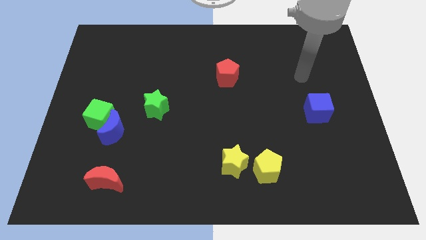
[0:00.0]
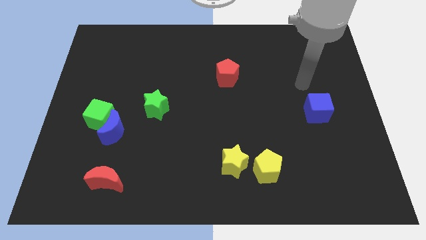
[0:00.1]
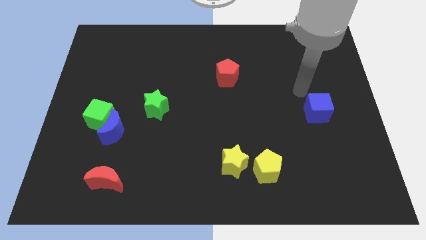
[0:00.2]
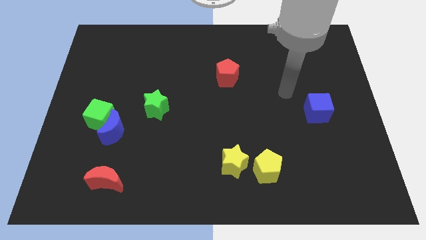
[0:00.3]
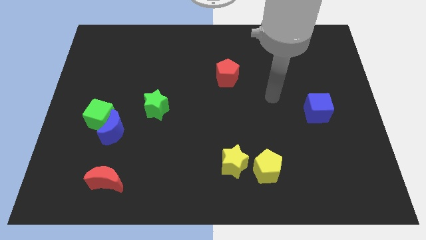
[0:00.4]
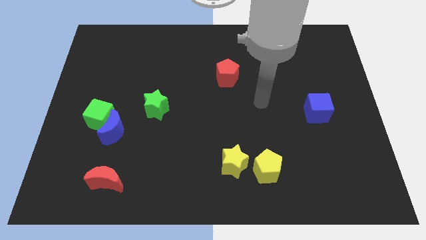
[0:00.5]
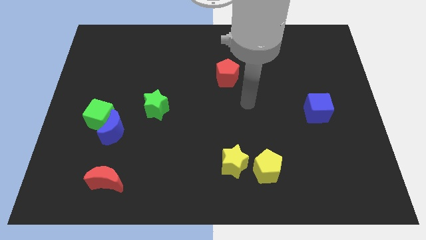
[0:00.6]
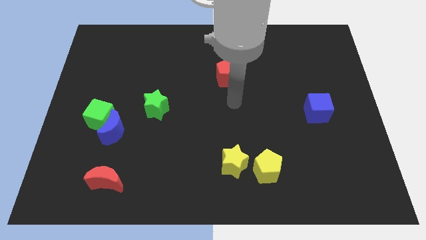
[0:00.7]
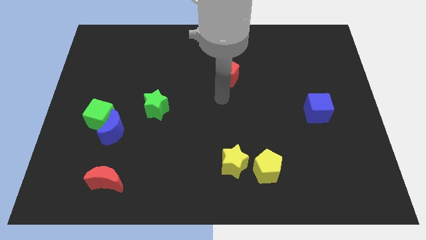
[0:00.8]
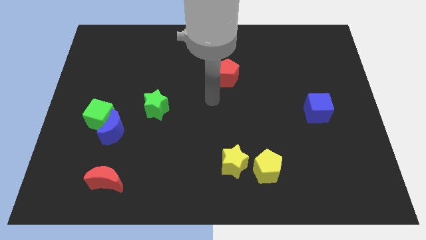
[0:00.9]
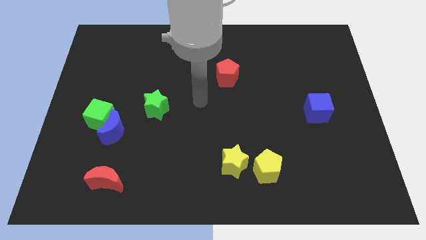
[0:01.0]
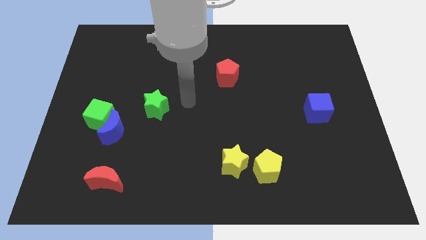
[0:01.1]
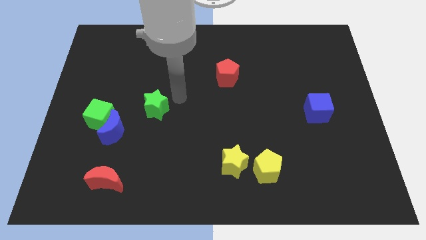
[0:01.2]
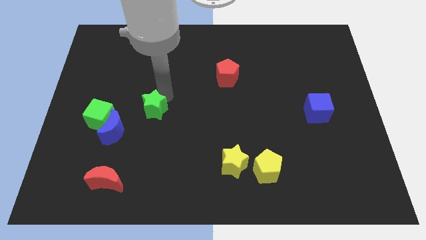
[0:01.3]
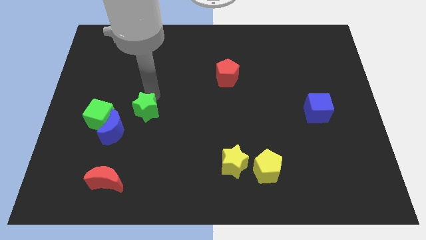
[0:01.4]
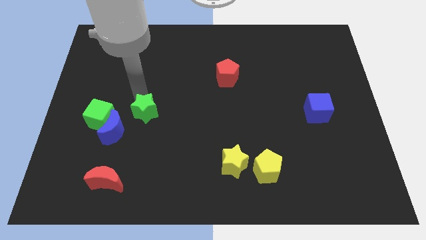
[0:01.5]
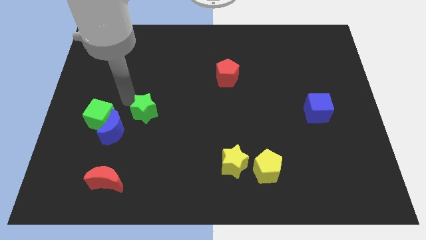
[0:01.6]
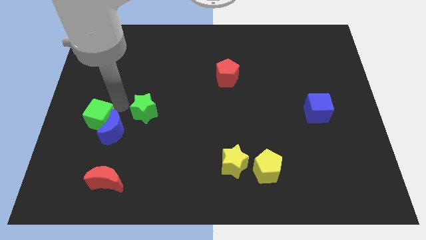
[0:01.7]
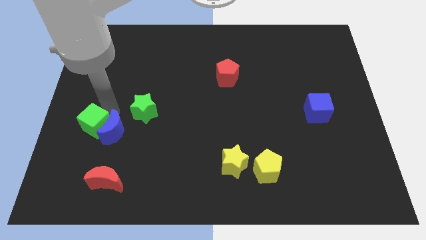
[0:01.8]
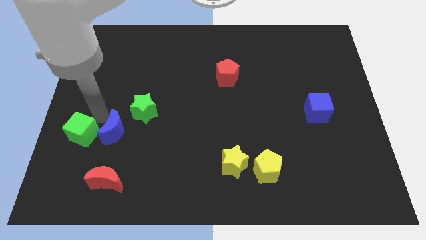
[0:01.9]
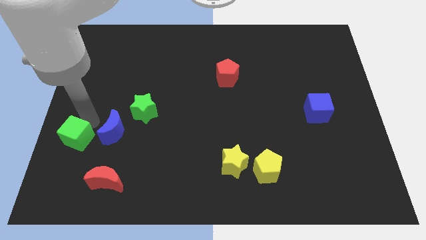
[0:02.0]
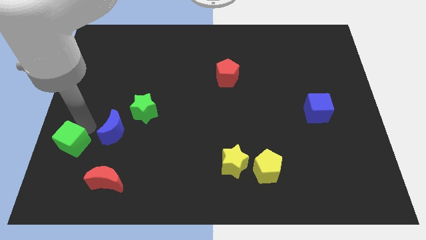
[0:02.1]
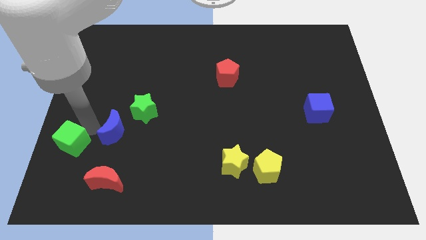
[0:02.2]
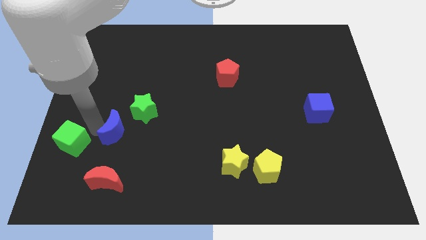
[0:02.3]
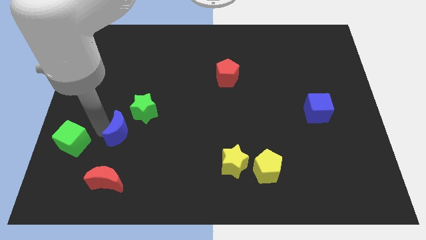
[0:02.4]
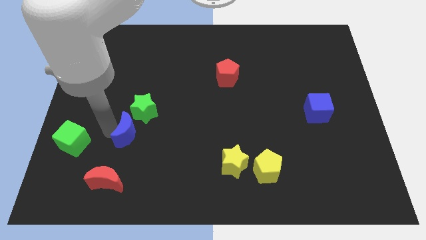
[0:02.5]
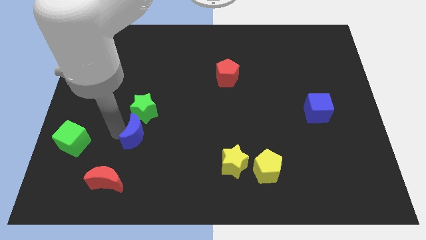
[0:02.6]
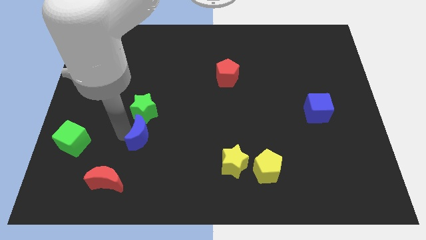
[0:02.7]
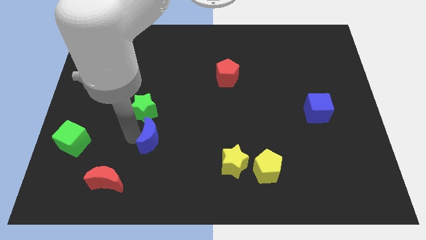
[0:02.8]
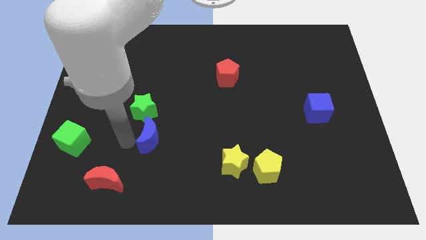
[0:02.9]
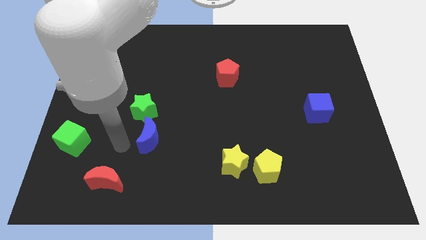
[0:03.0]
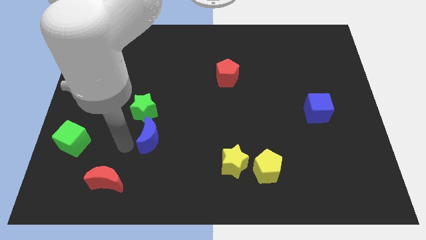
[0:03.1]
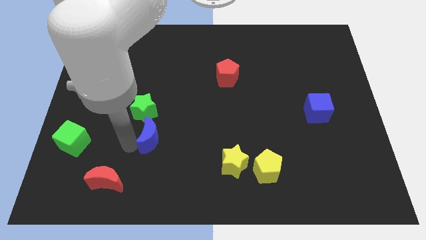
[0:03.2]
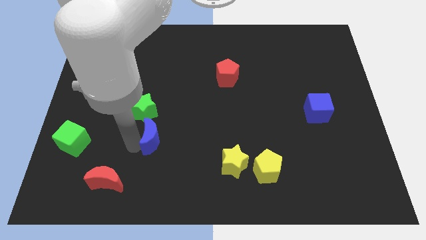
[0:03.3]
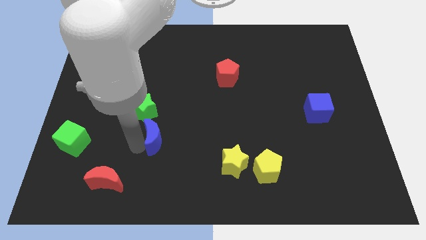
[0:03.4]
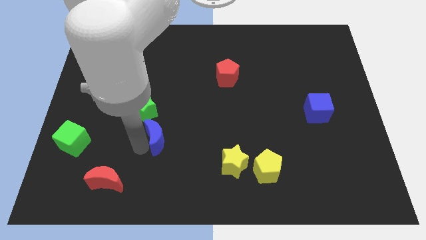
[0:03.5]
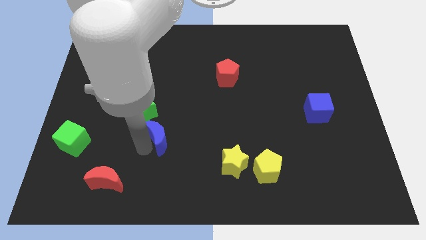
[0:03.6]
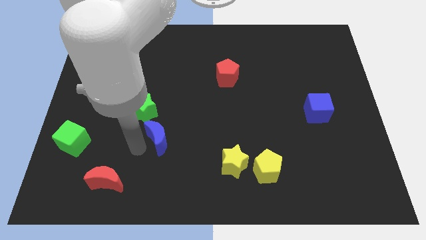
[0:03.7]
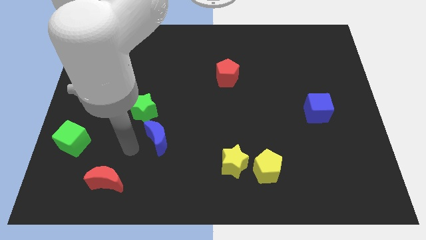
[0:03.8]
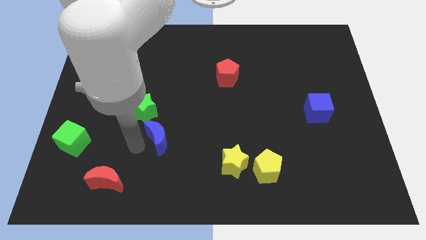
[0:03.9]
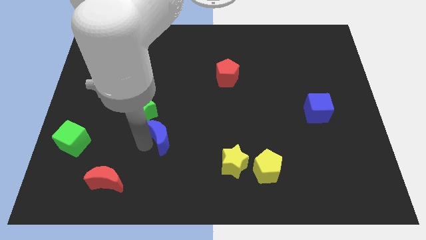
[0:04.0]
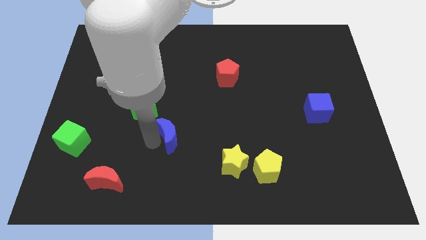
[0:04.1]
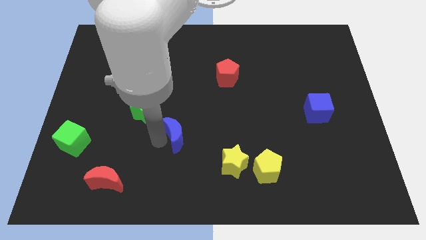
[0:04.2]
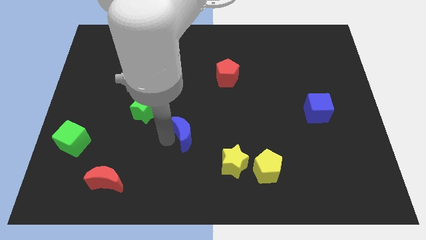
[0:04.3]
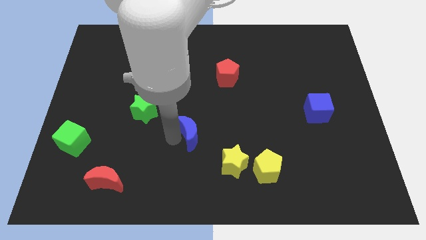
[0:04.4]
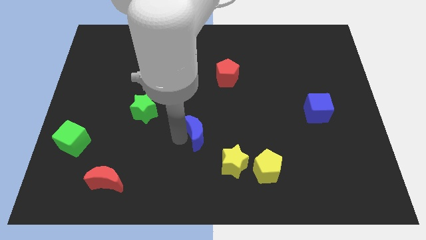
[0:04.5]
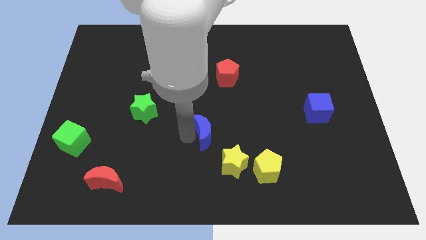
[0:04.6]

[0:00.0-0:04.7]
move the blue moon to the right

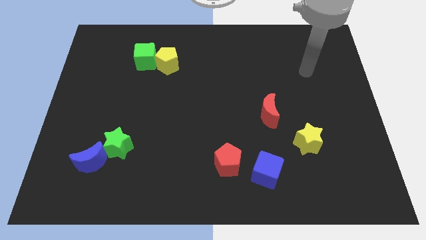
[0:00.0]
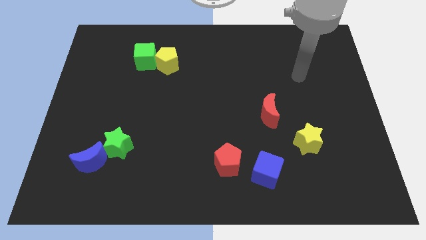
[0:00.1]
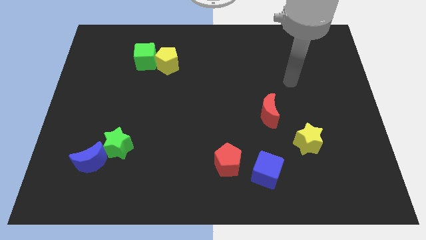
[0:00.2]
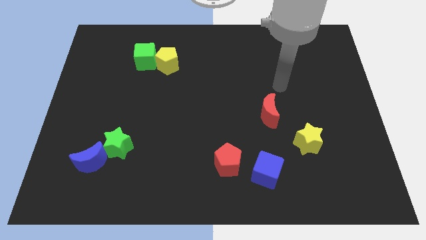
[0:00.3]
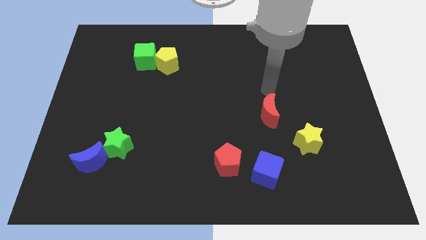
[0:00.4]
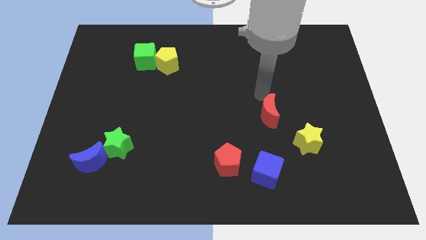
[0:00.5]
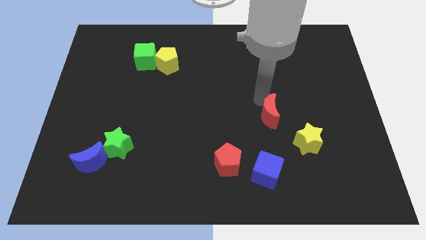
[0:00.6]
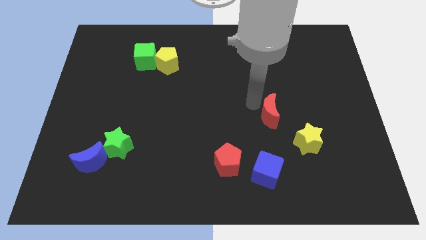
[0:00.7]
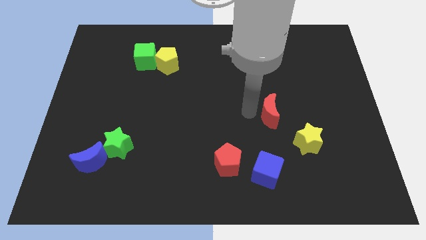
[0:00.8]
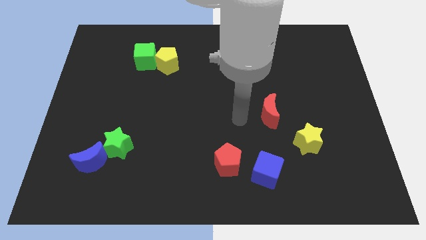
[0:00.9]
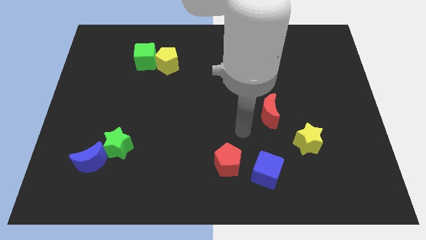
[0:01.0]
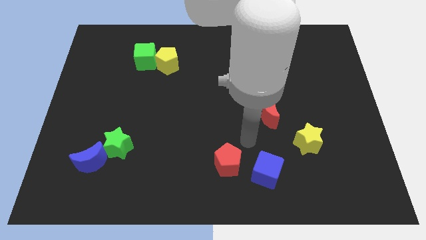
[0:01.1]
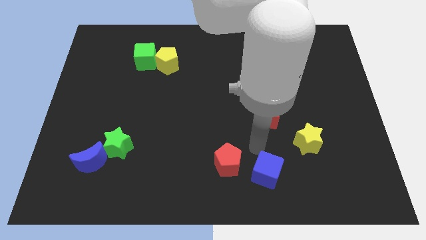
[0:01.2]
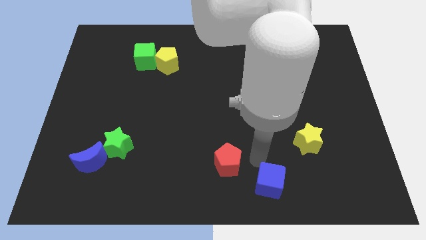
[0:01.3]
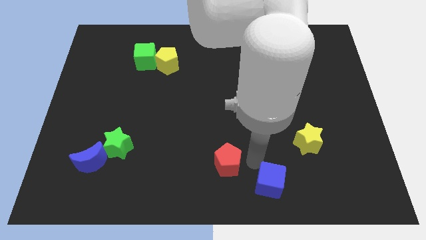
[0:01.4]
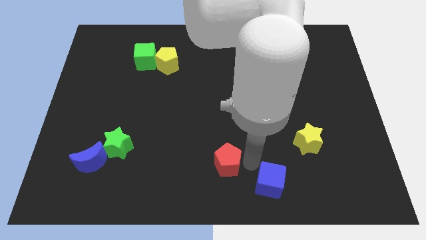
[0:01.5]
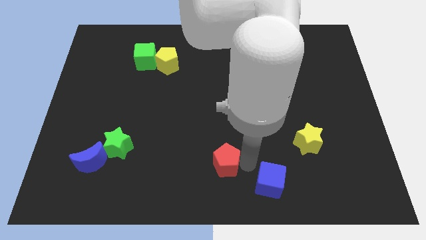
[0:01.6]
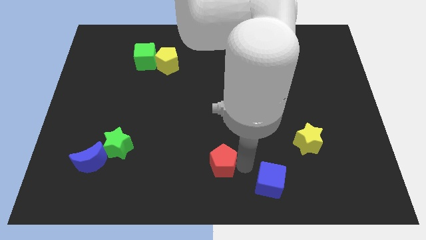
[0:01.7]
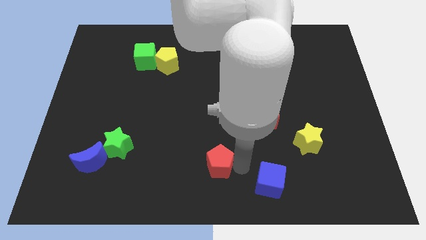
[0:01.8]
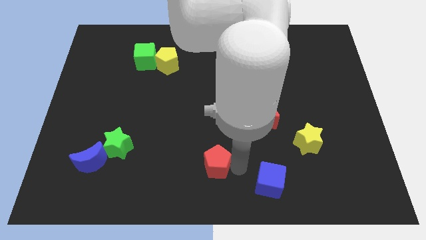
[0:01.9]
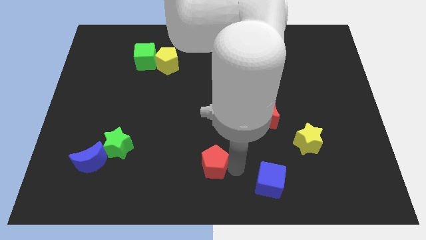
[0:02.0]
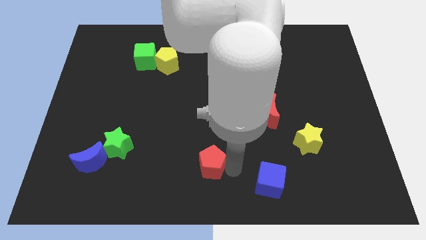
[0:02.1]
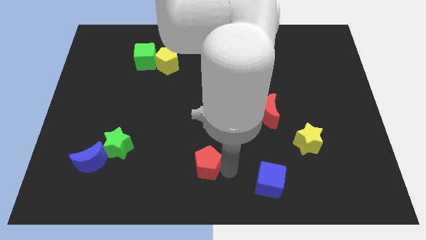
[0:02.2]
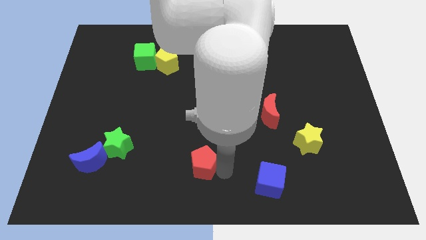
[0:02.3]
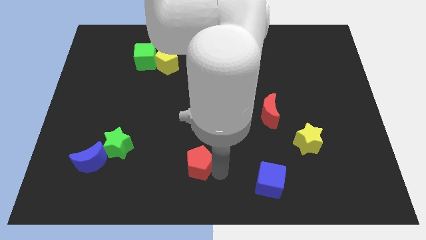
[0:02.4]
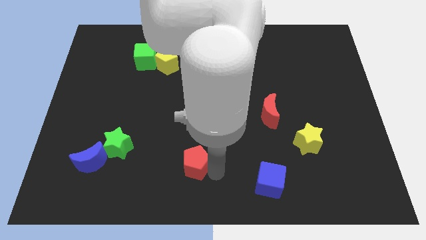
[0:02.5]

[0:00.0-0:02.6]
push the red pentagon to the left slightly

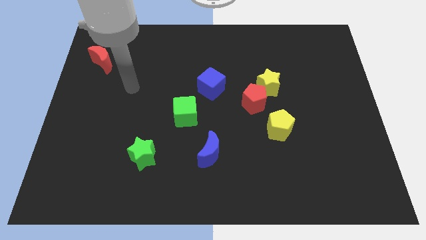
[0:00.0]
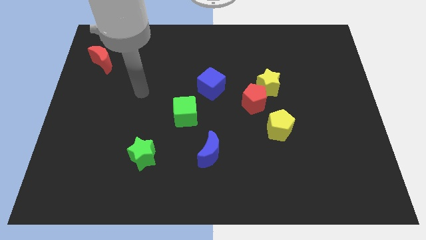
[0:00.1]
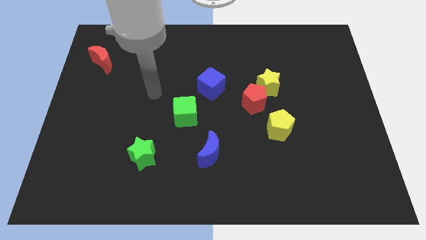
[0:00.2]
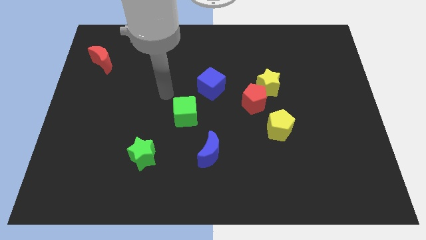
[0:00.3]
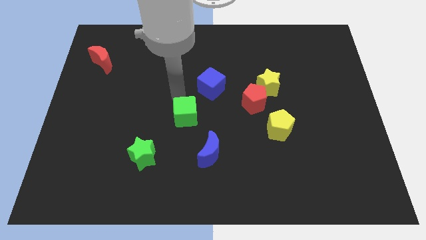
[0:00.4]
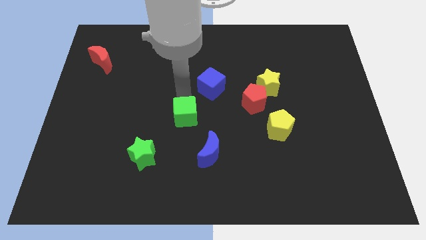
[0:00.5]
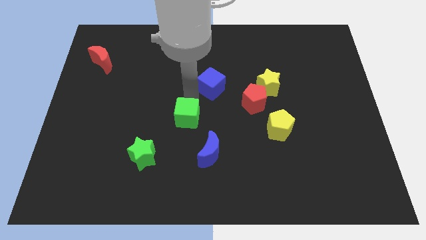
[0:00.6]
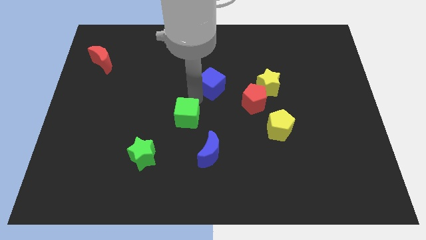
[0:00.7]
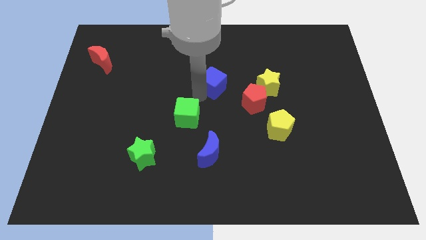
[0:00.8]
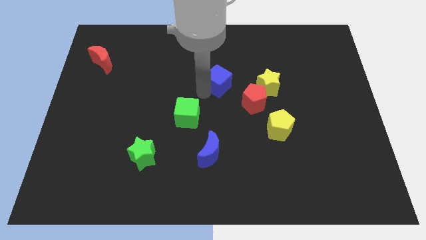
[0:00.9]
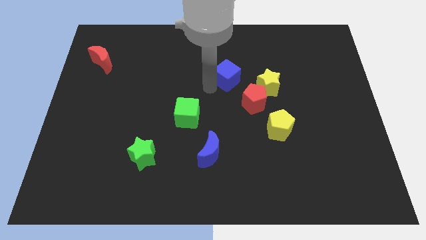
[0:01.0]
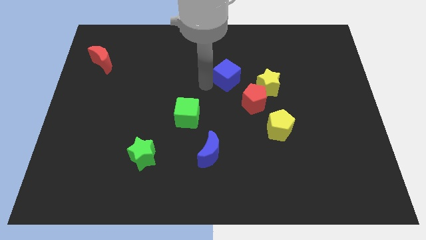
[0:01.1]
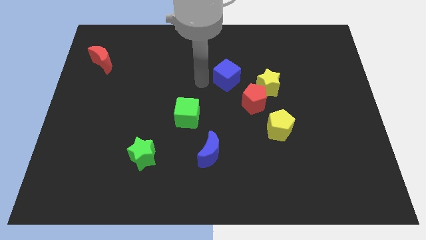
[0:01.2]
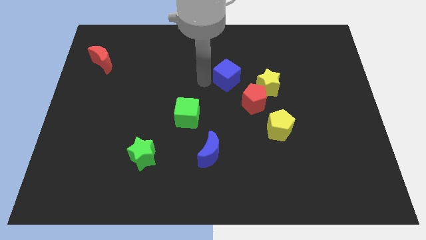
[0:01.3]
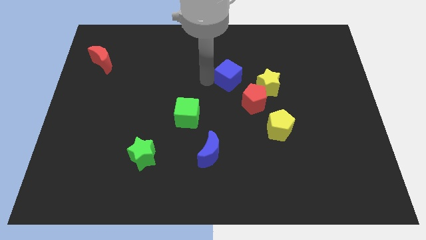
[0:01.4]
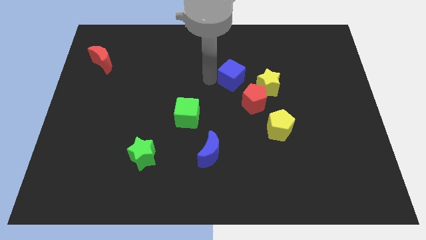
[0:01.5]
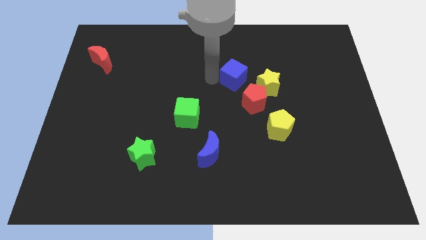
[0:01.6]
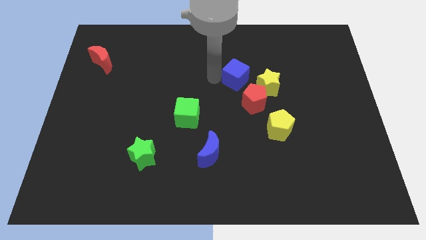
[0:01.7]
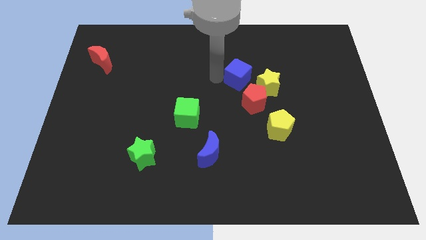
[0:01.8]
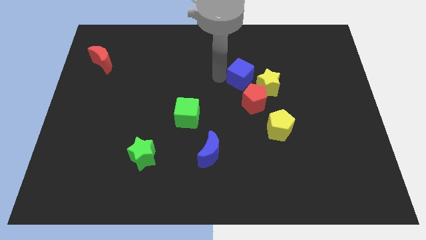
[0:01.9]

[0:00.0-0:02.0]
slide the blue cube to the right a bit
